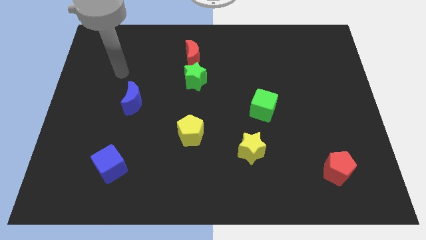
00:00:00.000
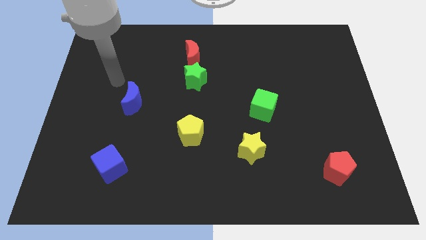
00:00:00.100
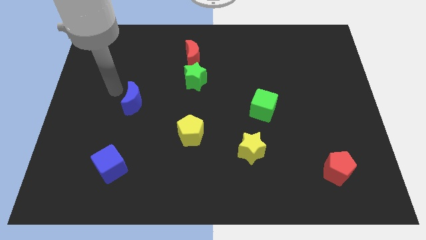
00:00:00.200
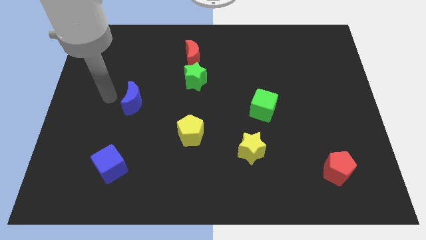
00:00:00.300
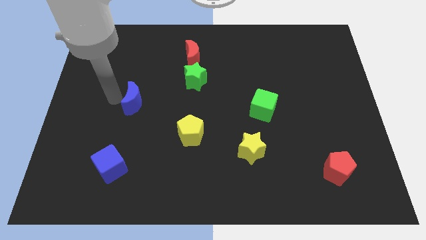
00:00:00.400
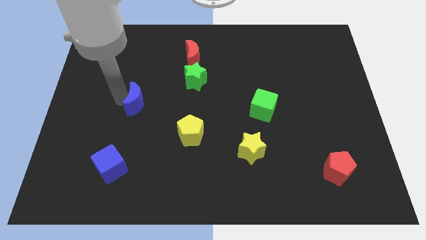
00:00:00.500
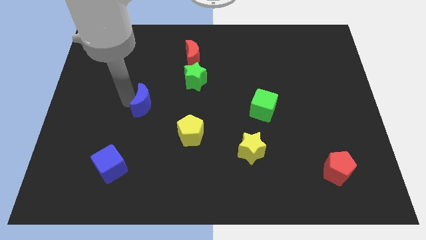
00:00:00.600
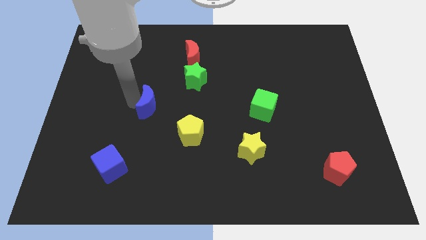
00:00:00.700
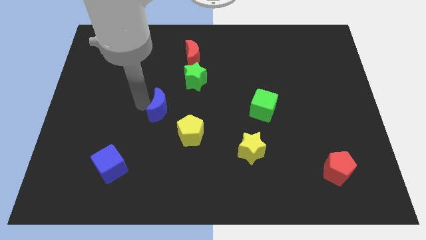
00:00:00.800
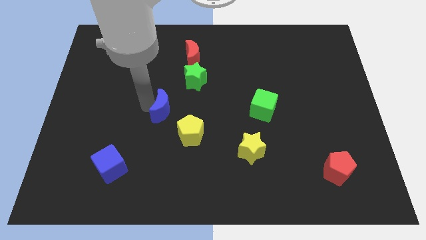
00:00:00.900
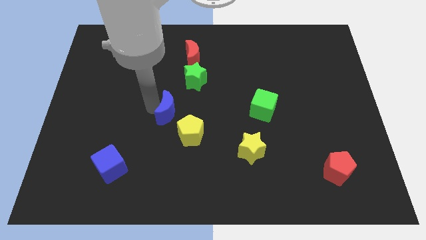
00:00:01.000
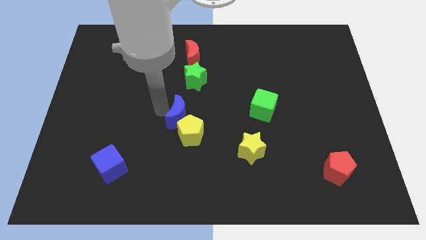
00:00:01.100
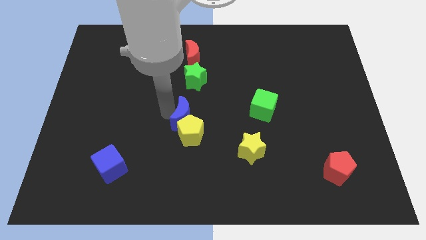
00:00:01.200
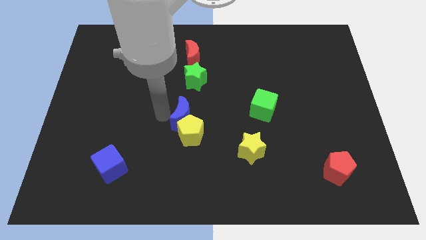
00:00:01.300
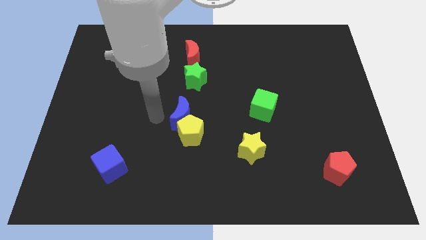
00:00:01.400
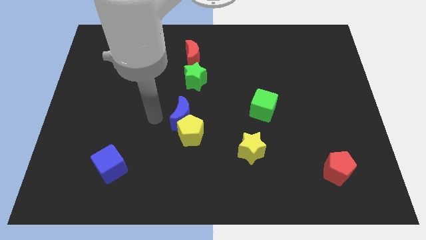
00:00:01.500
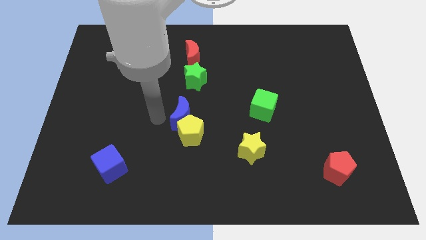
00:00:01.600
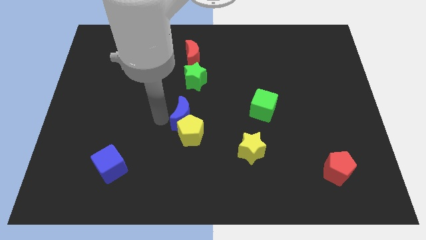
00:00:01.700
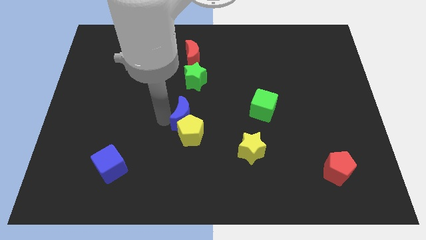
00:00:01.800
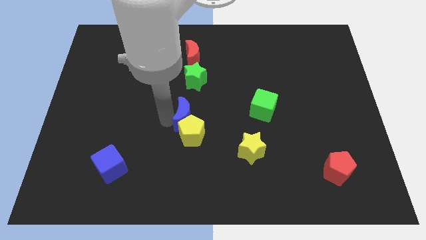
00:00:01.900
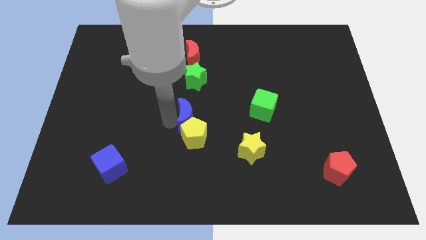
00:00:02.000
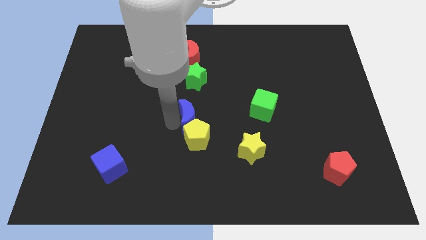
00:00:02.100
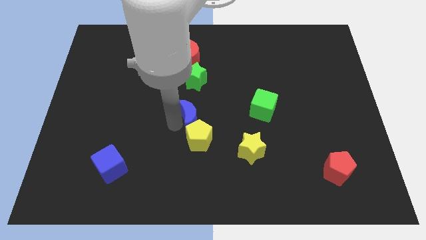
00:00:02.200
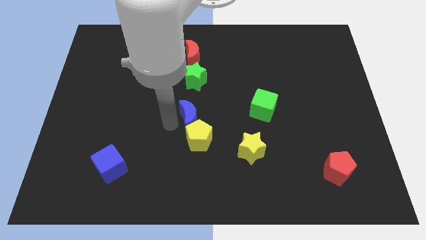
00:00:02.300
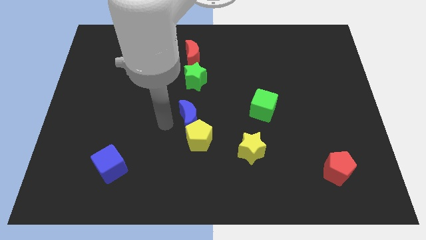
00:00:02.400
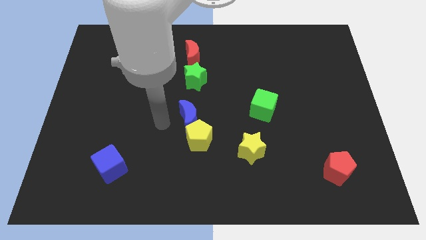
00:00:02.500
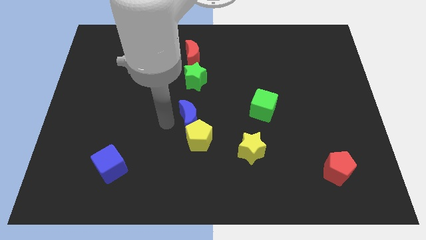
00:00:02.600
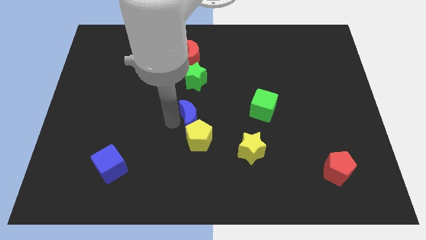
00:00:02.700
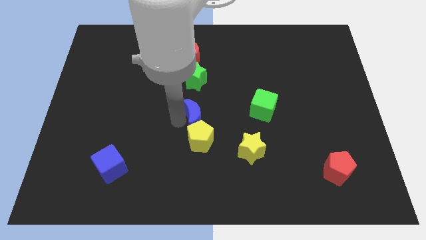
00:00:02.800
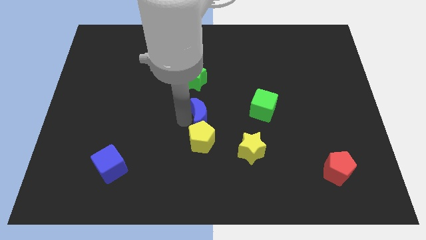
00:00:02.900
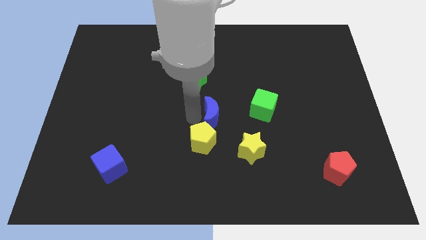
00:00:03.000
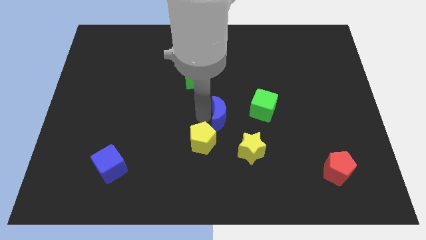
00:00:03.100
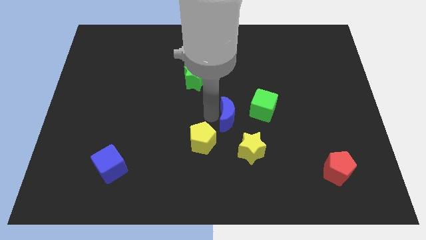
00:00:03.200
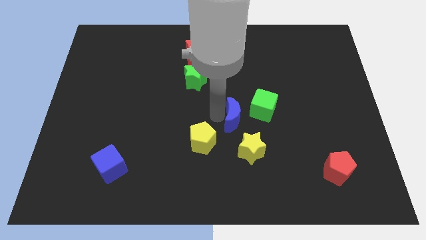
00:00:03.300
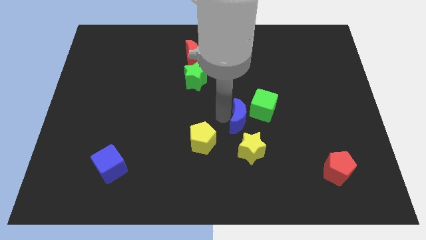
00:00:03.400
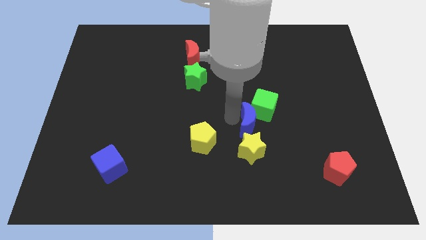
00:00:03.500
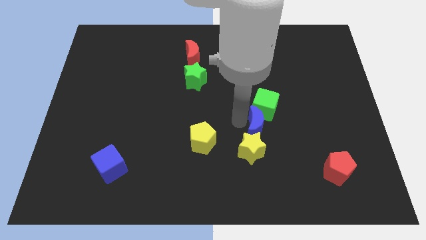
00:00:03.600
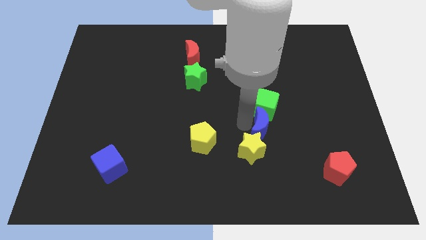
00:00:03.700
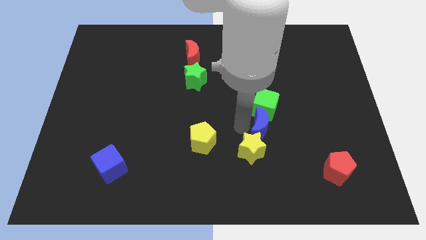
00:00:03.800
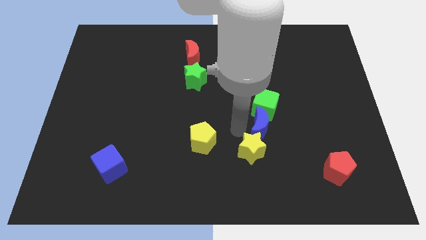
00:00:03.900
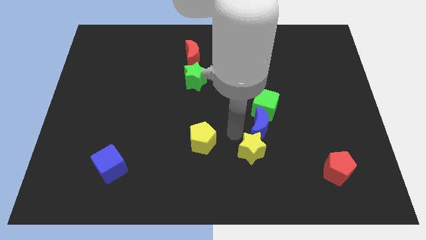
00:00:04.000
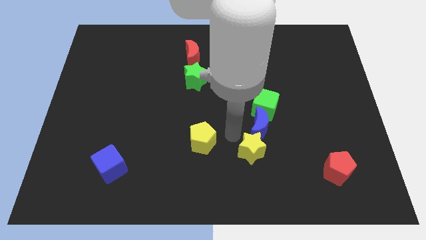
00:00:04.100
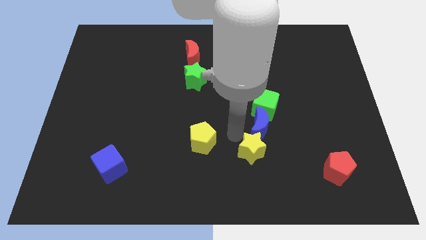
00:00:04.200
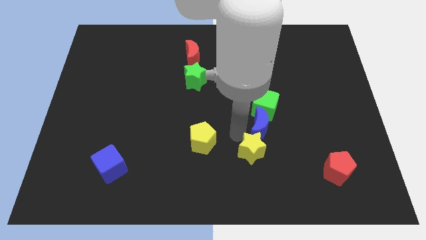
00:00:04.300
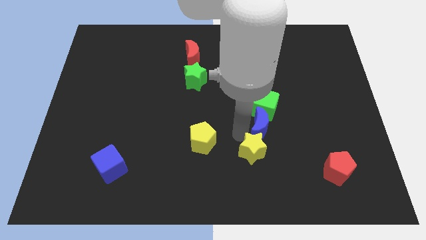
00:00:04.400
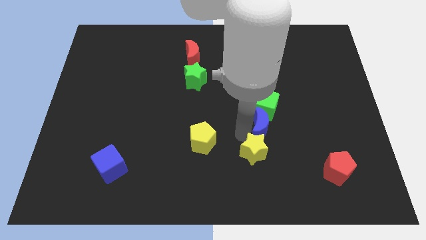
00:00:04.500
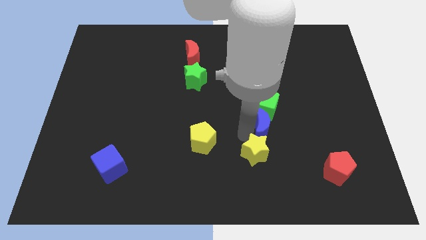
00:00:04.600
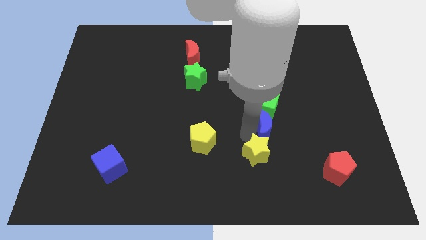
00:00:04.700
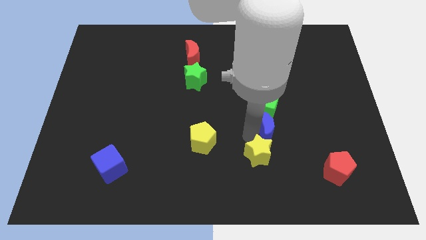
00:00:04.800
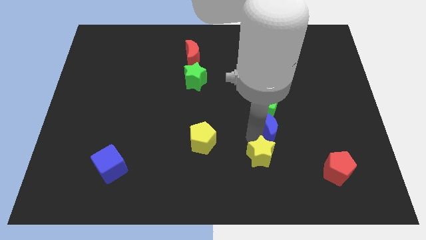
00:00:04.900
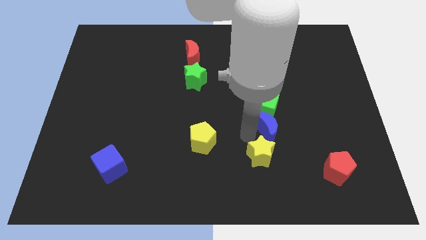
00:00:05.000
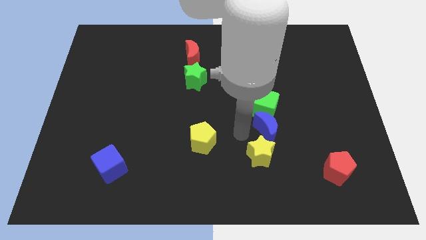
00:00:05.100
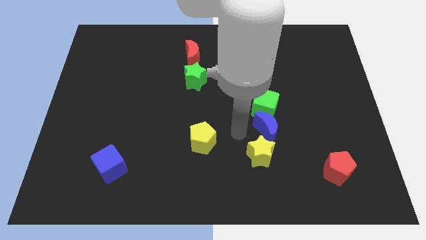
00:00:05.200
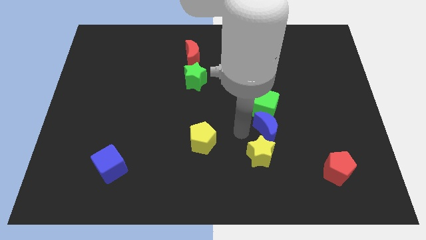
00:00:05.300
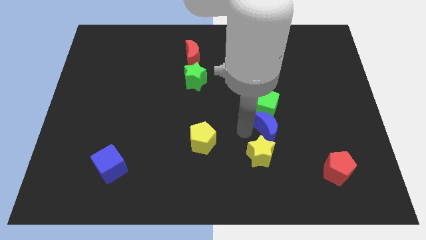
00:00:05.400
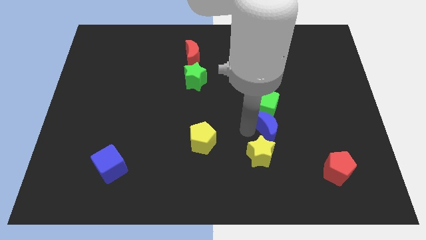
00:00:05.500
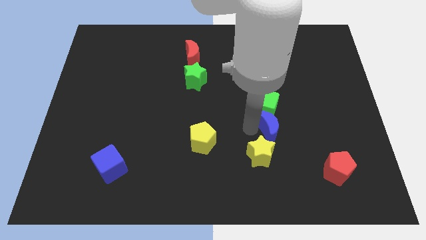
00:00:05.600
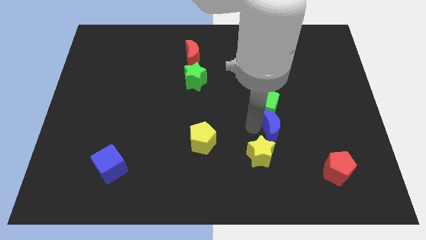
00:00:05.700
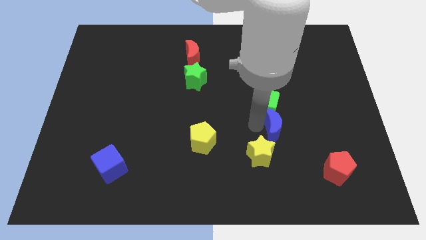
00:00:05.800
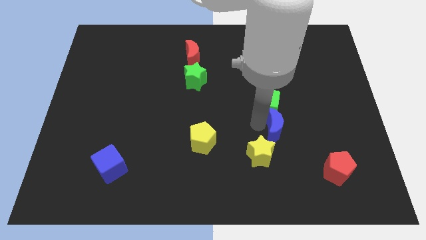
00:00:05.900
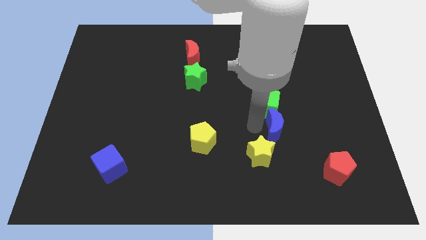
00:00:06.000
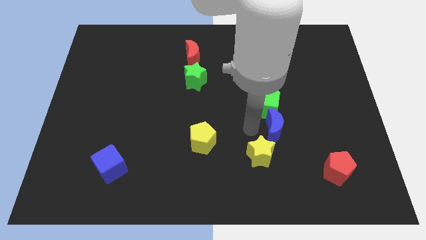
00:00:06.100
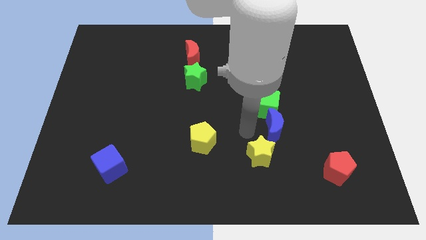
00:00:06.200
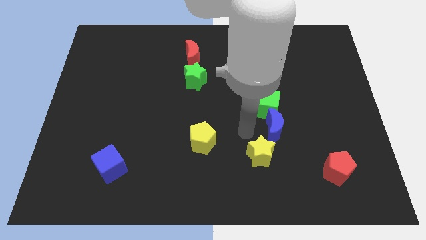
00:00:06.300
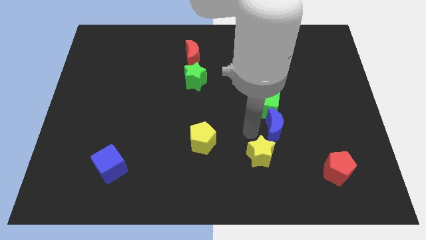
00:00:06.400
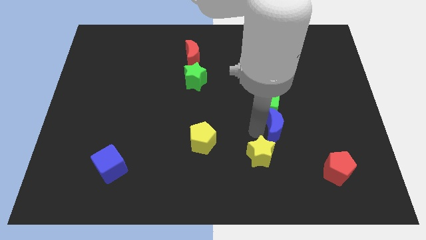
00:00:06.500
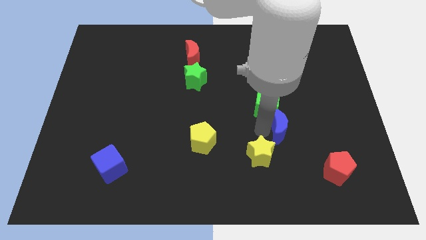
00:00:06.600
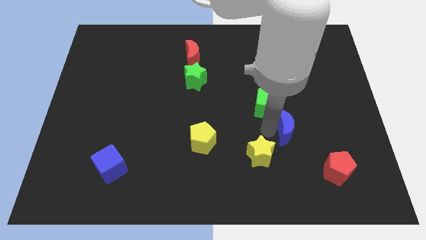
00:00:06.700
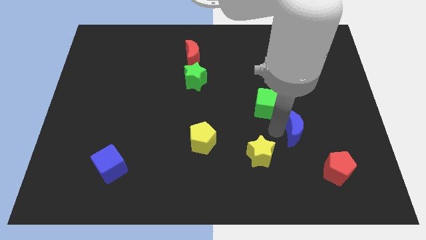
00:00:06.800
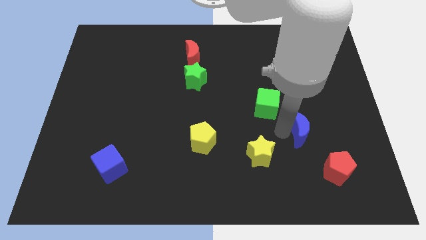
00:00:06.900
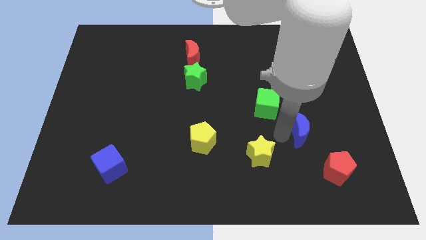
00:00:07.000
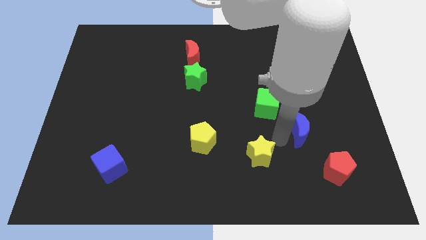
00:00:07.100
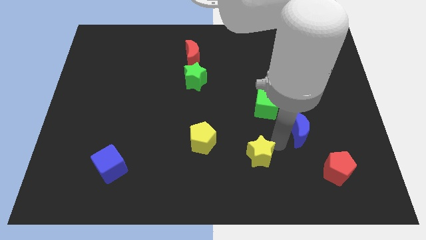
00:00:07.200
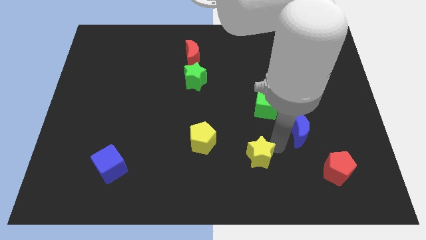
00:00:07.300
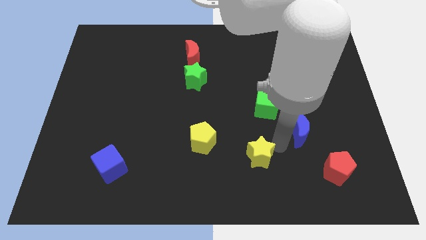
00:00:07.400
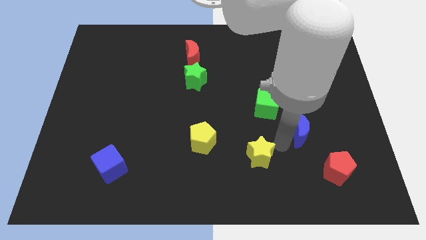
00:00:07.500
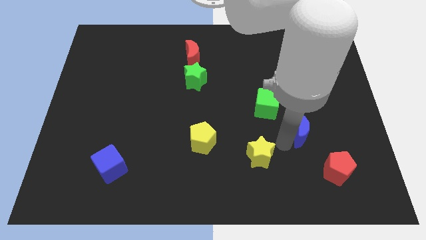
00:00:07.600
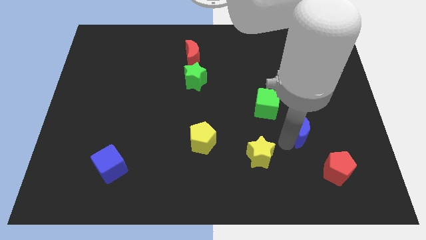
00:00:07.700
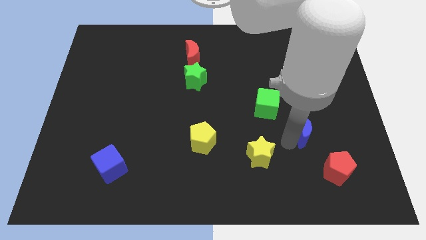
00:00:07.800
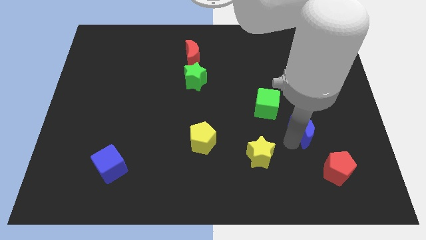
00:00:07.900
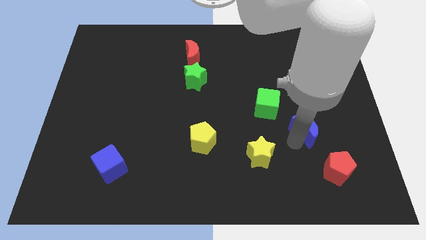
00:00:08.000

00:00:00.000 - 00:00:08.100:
put the blue moon above the red pentagon
